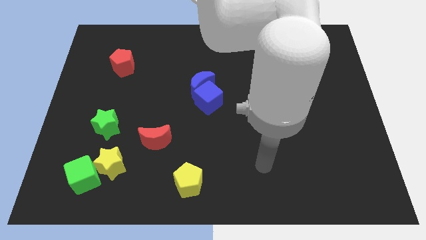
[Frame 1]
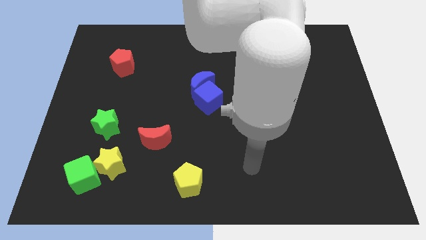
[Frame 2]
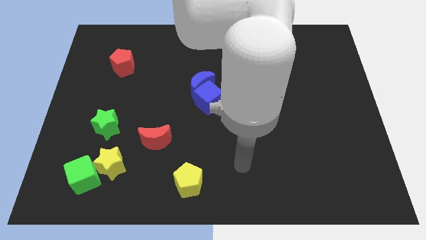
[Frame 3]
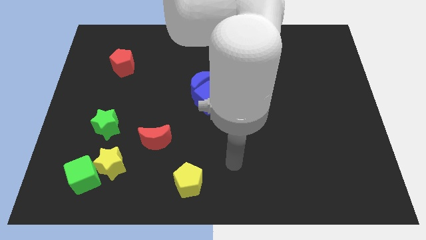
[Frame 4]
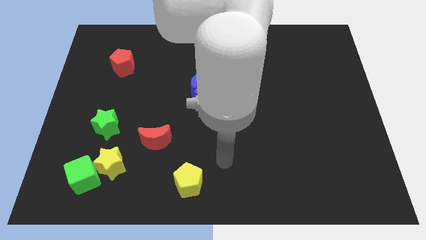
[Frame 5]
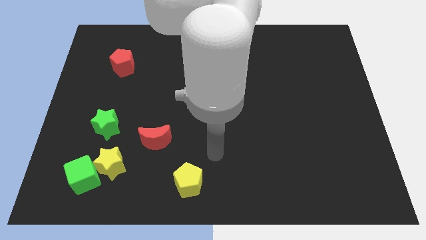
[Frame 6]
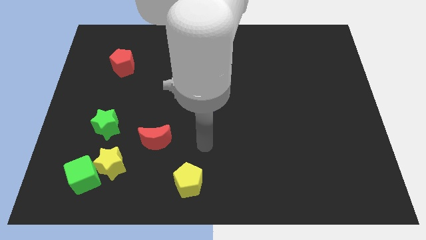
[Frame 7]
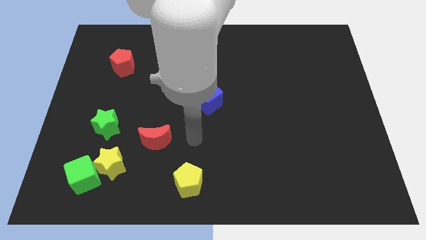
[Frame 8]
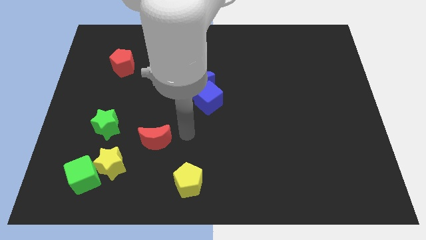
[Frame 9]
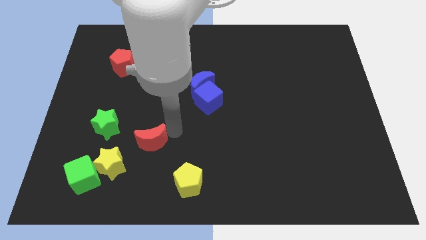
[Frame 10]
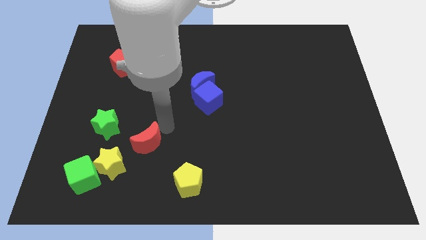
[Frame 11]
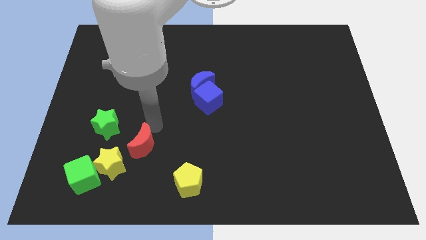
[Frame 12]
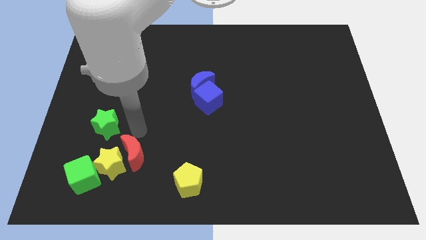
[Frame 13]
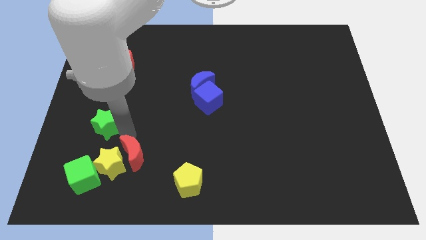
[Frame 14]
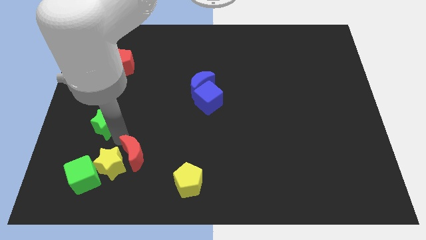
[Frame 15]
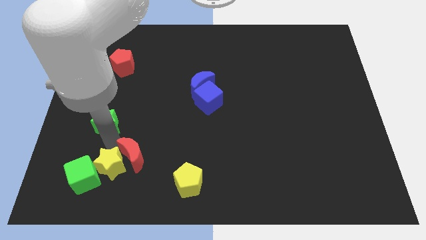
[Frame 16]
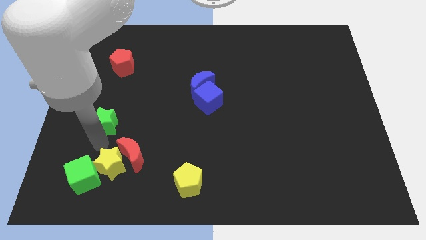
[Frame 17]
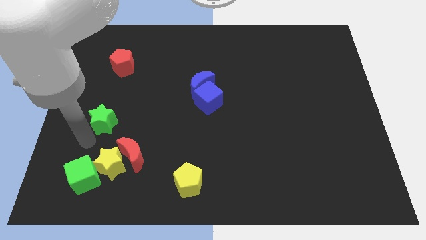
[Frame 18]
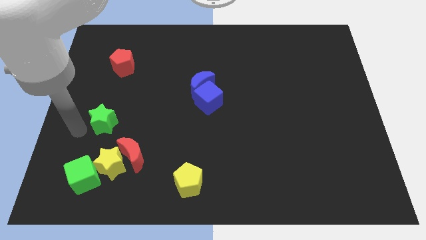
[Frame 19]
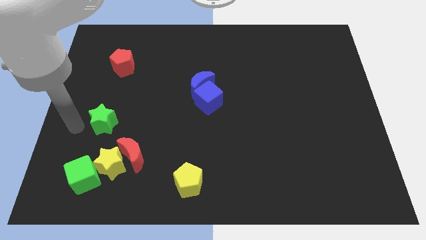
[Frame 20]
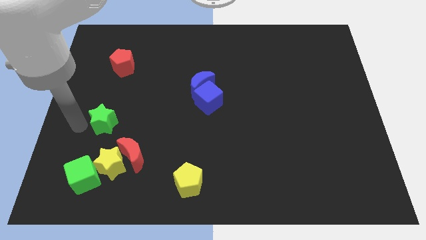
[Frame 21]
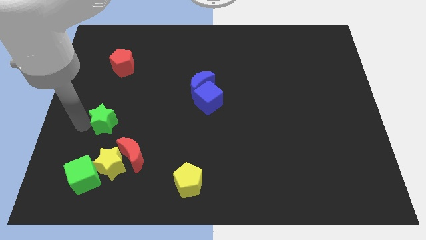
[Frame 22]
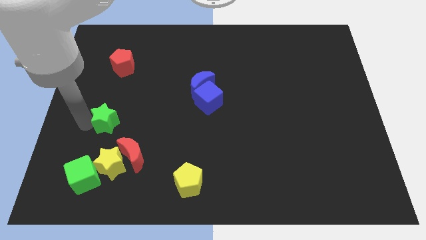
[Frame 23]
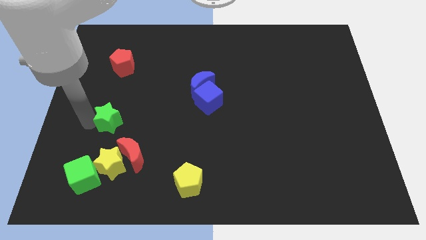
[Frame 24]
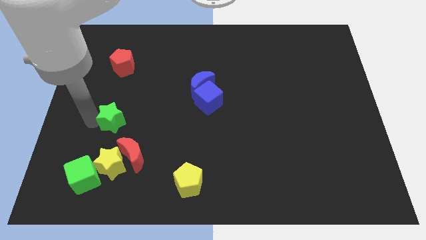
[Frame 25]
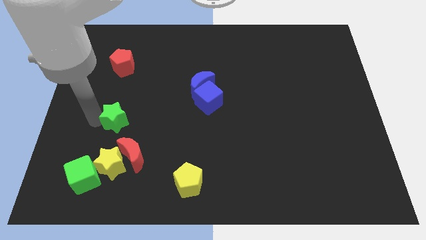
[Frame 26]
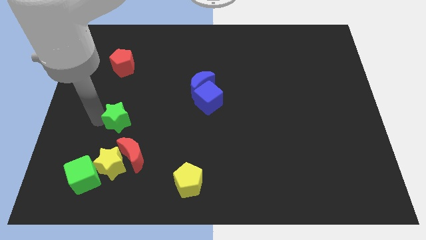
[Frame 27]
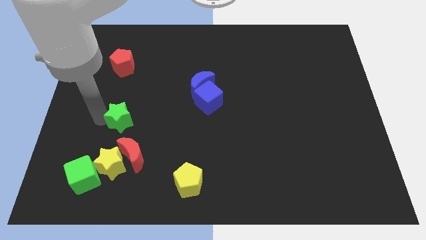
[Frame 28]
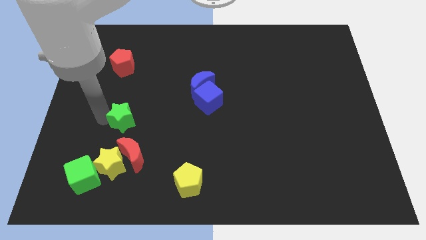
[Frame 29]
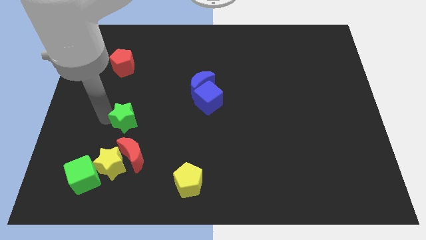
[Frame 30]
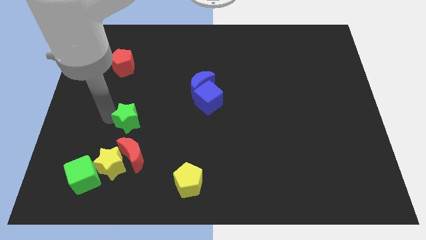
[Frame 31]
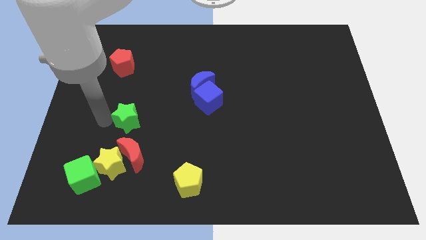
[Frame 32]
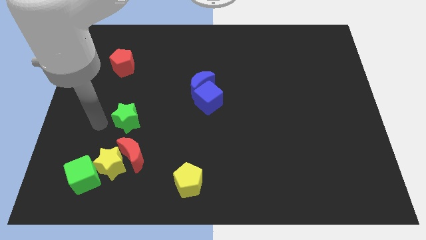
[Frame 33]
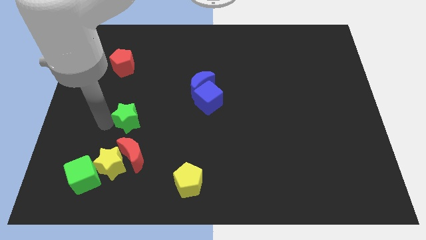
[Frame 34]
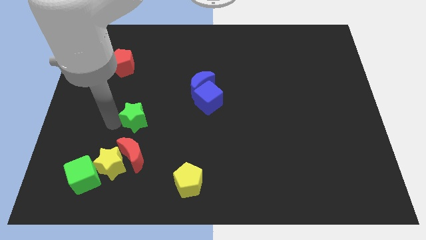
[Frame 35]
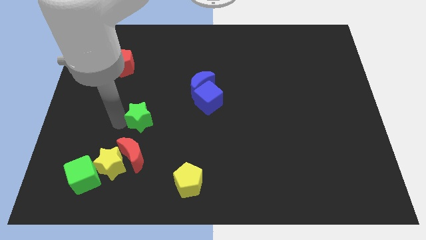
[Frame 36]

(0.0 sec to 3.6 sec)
slightly push the green star right

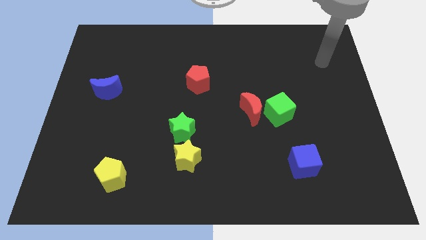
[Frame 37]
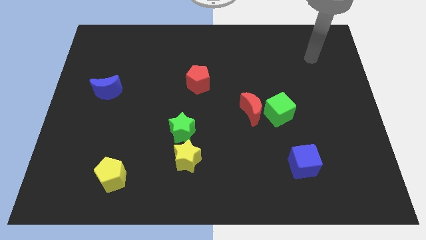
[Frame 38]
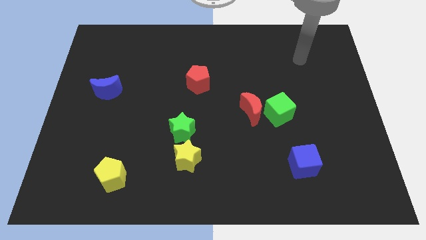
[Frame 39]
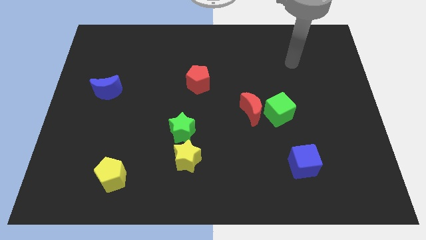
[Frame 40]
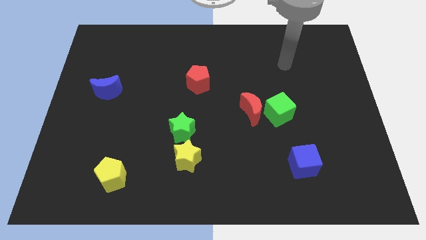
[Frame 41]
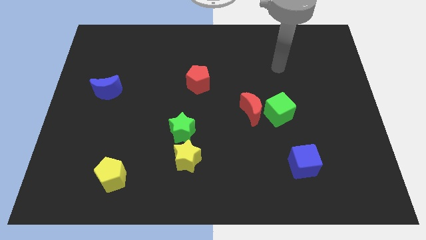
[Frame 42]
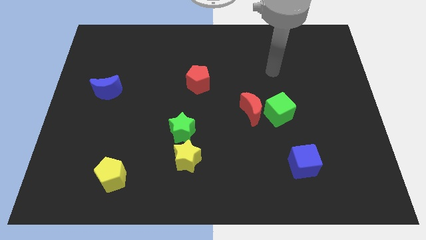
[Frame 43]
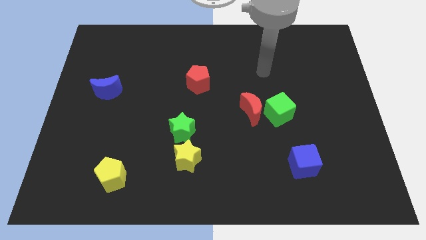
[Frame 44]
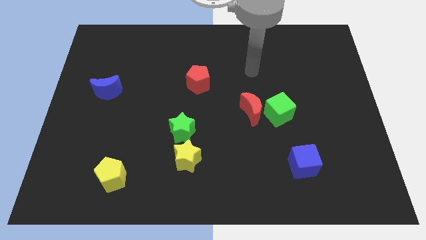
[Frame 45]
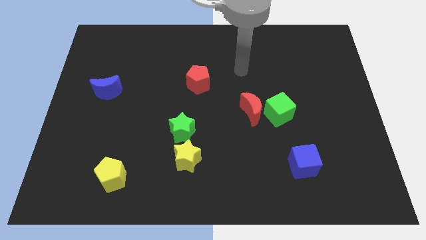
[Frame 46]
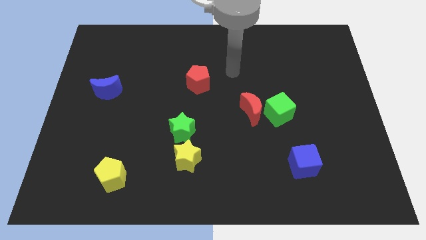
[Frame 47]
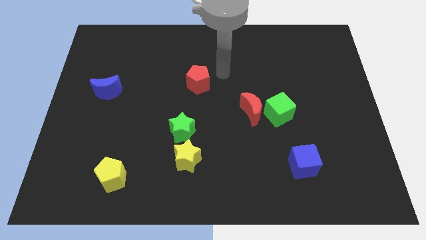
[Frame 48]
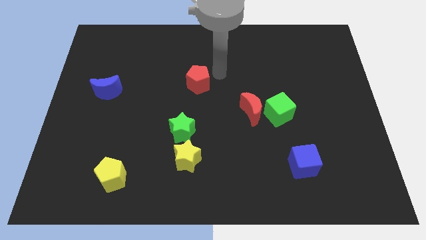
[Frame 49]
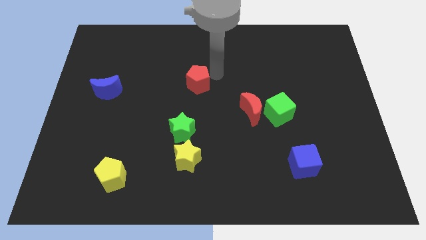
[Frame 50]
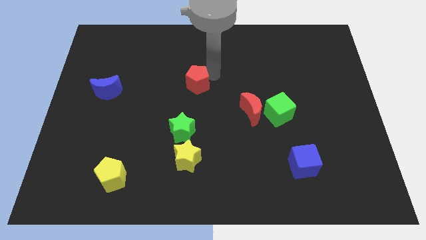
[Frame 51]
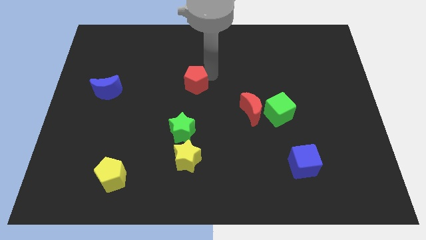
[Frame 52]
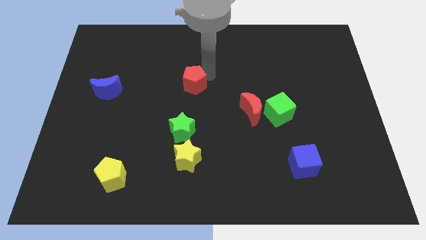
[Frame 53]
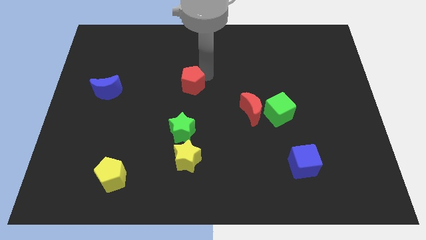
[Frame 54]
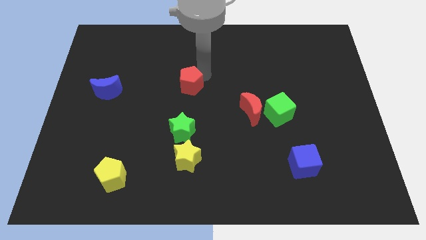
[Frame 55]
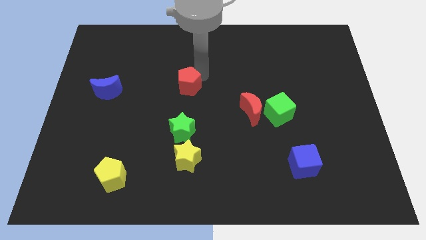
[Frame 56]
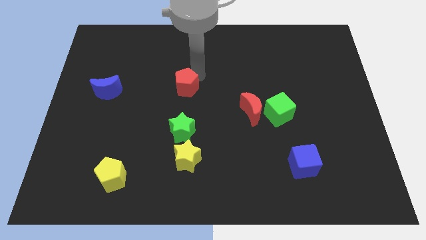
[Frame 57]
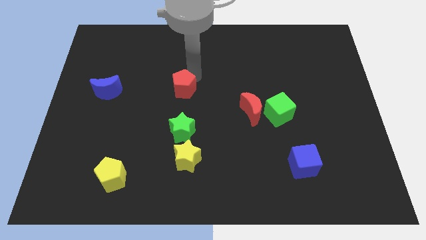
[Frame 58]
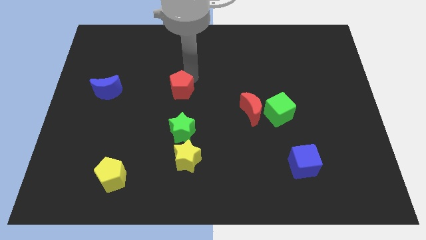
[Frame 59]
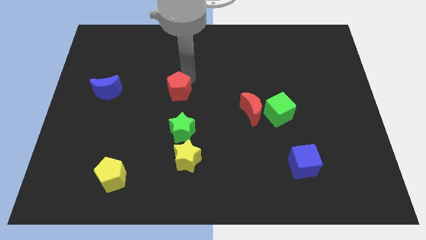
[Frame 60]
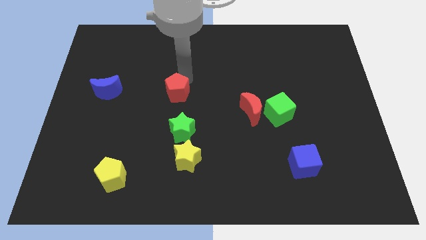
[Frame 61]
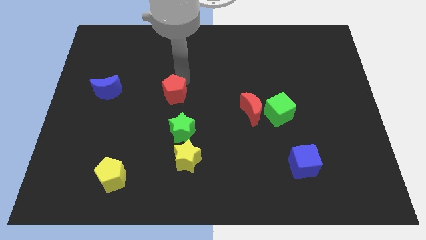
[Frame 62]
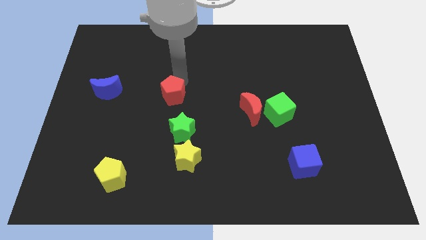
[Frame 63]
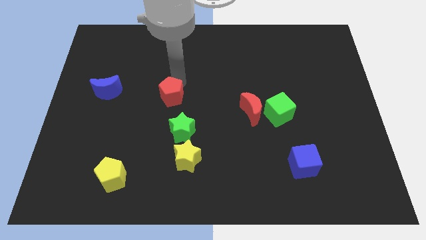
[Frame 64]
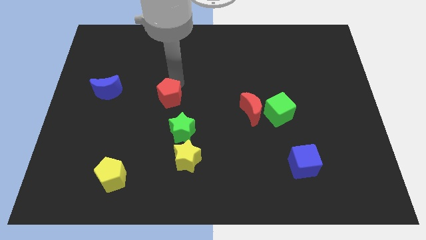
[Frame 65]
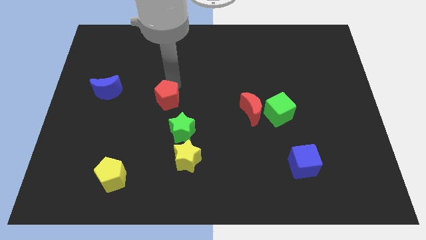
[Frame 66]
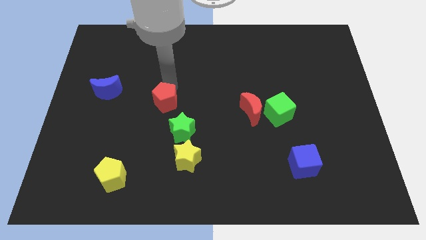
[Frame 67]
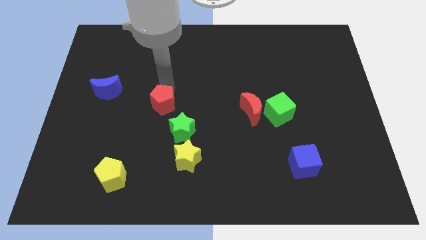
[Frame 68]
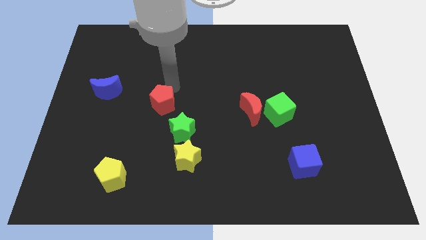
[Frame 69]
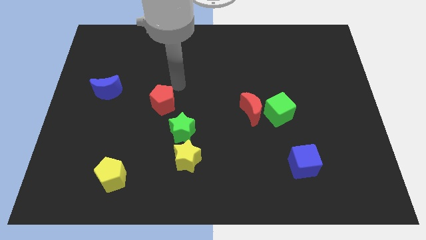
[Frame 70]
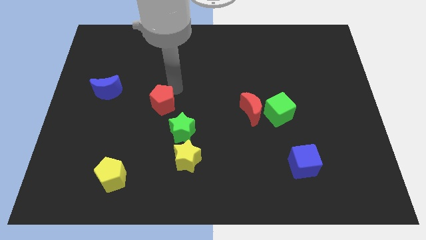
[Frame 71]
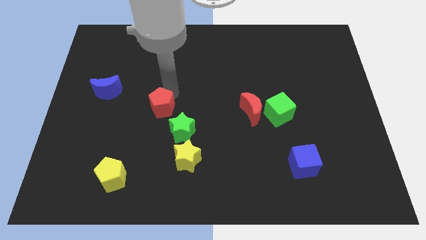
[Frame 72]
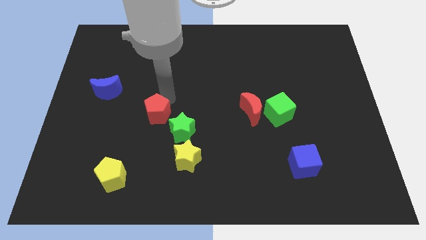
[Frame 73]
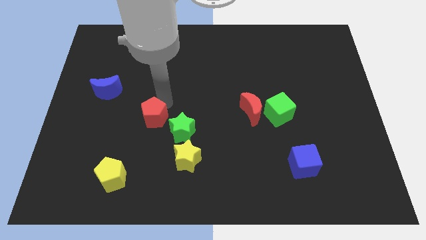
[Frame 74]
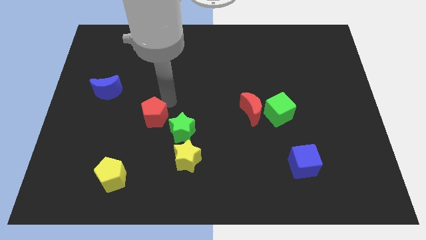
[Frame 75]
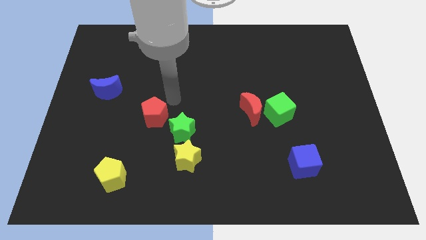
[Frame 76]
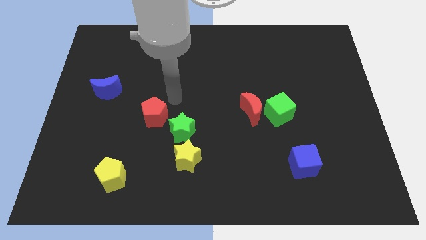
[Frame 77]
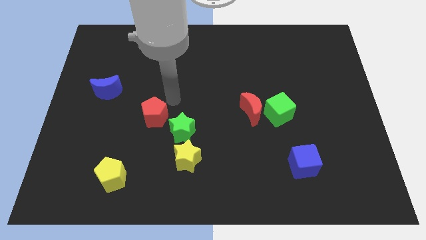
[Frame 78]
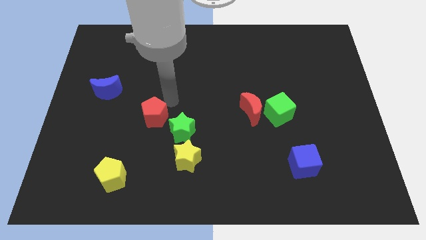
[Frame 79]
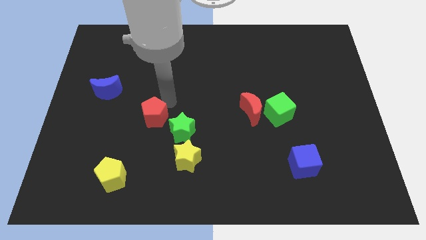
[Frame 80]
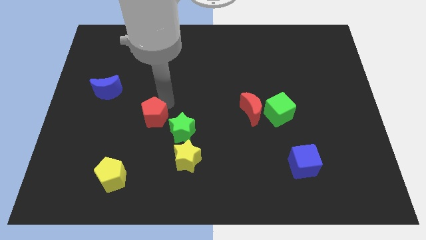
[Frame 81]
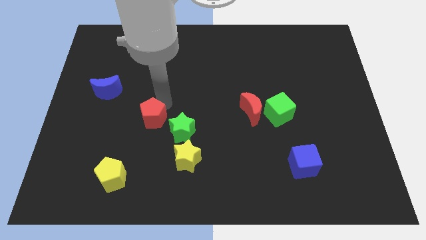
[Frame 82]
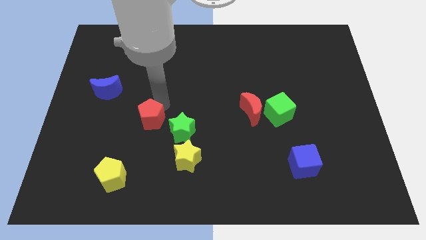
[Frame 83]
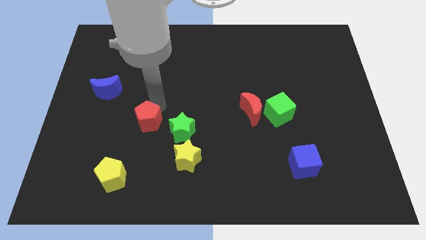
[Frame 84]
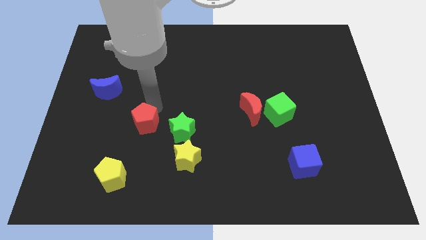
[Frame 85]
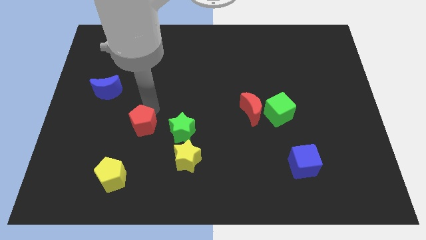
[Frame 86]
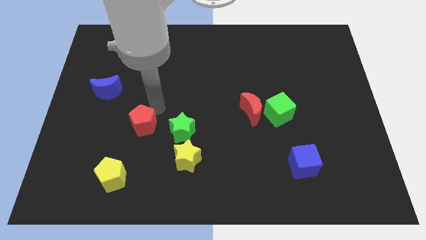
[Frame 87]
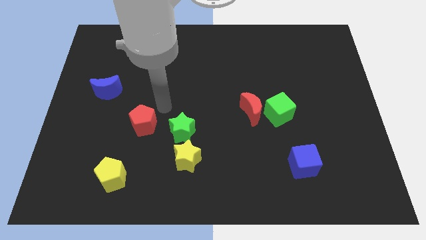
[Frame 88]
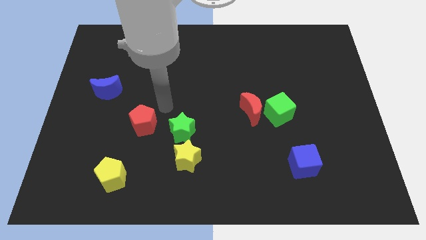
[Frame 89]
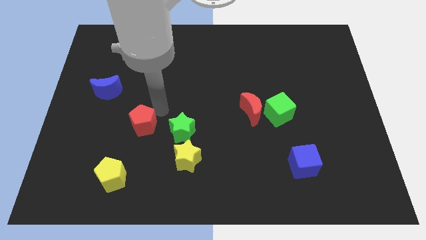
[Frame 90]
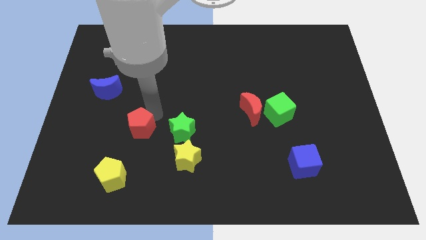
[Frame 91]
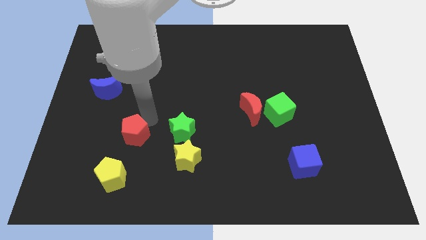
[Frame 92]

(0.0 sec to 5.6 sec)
slide the red pentagon down and to the left diagonally
